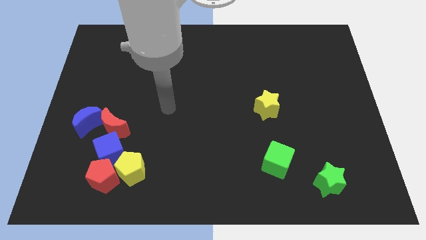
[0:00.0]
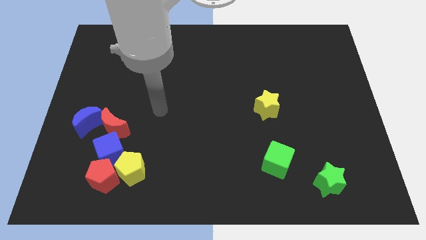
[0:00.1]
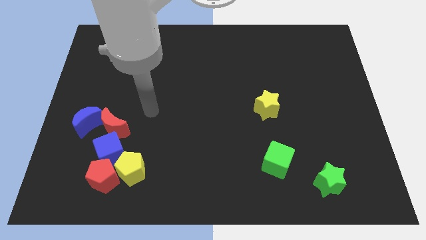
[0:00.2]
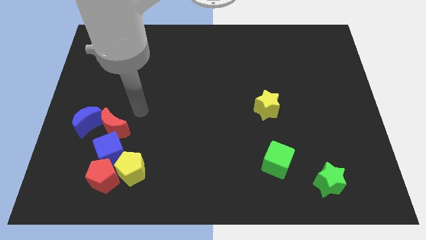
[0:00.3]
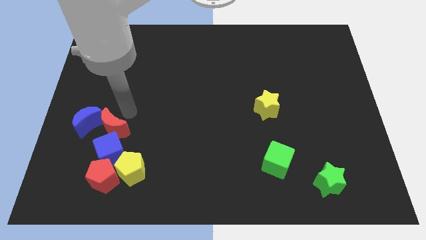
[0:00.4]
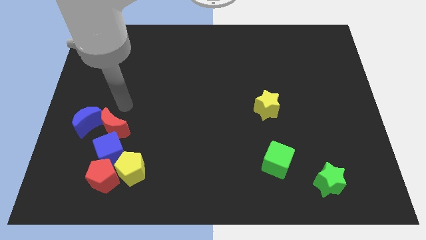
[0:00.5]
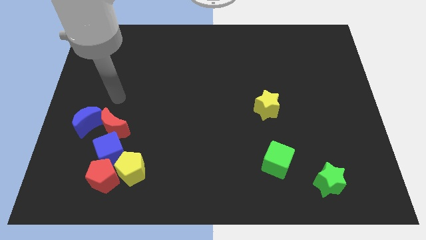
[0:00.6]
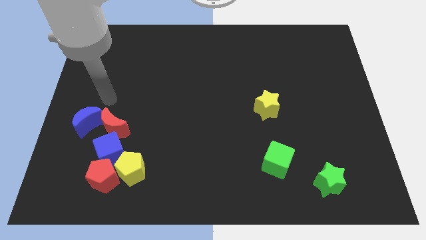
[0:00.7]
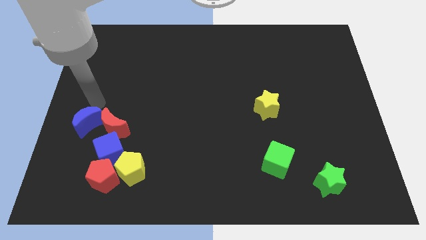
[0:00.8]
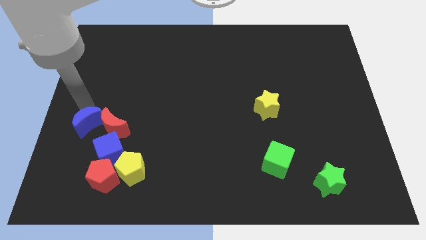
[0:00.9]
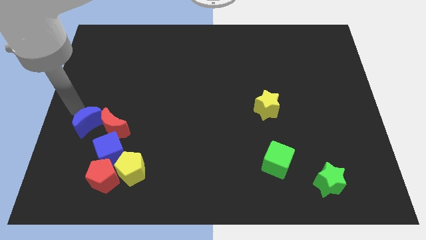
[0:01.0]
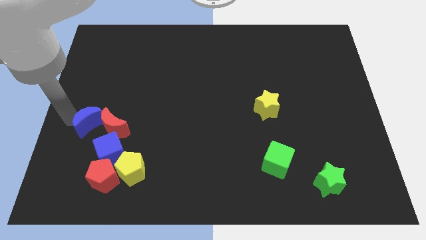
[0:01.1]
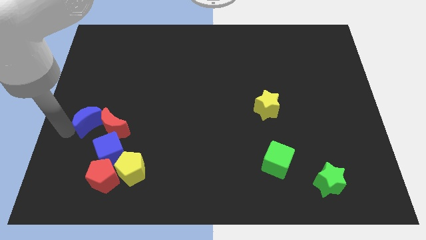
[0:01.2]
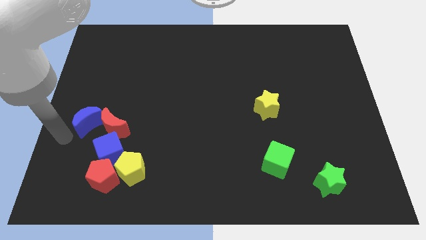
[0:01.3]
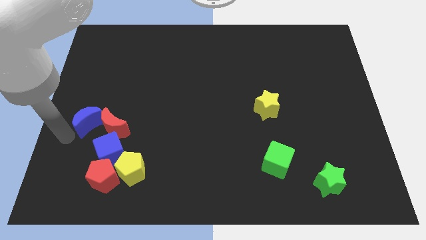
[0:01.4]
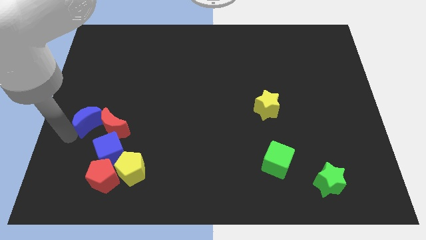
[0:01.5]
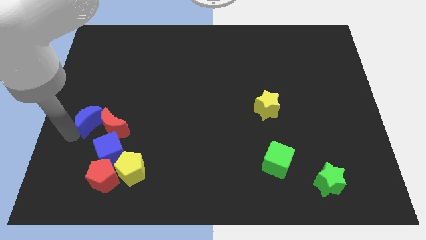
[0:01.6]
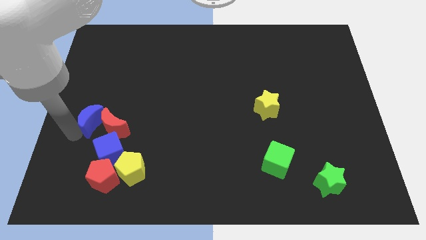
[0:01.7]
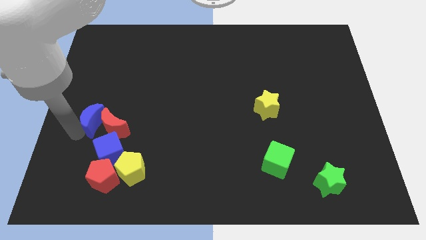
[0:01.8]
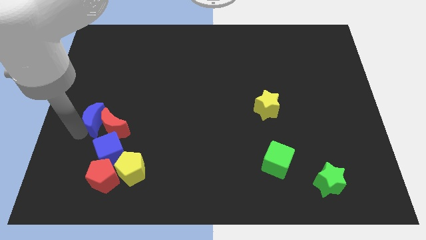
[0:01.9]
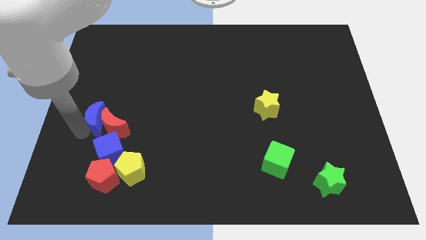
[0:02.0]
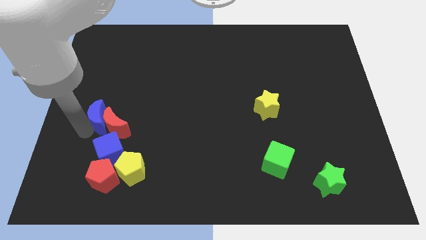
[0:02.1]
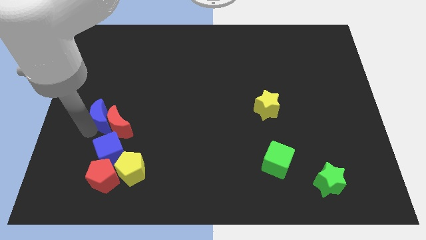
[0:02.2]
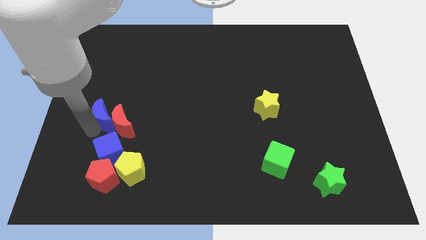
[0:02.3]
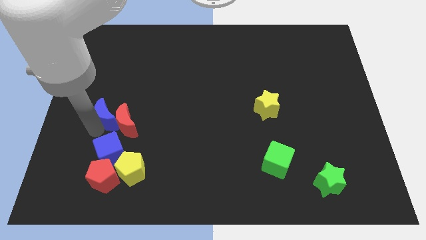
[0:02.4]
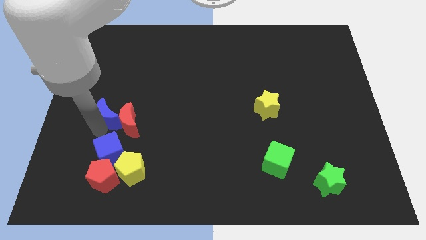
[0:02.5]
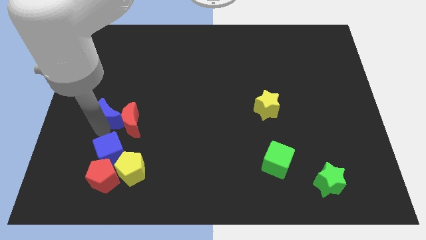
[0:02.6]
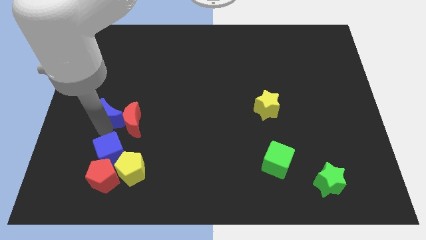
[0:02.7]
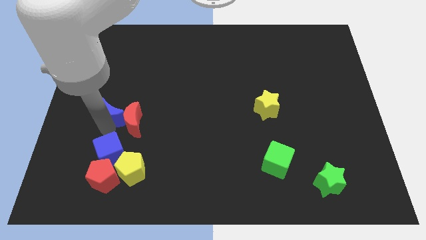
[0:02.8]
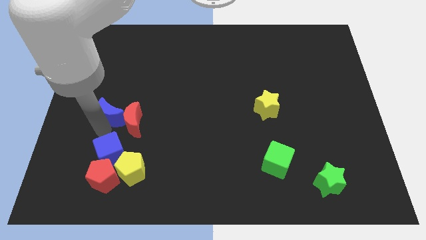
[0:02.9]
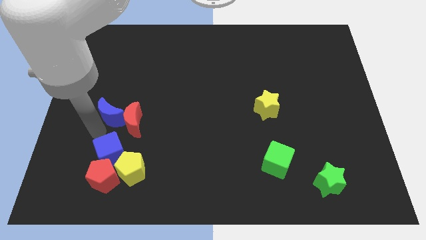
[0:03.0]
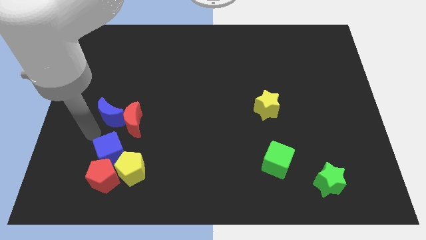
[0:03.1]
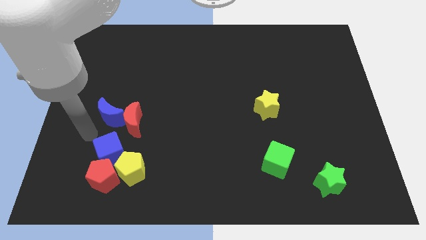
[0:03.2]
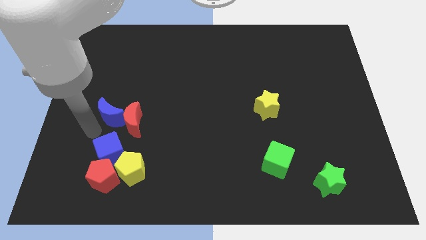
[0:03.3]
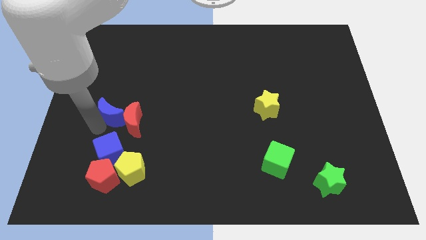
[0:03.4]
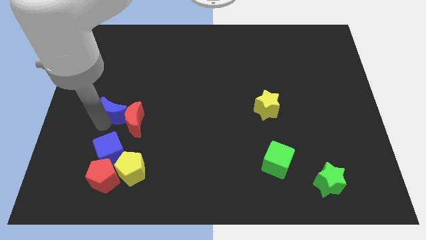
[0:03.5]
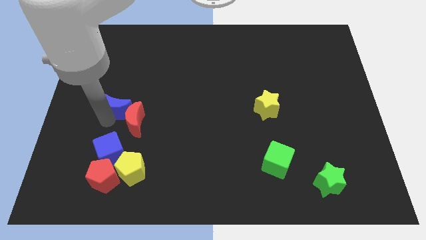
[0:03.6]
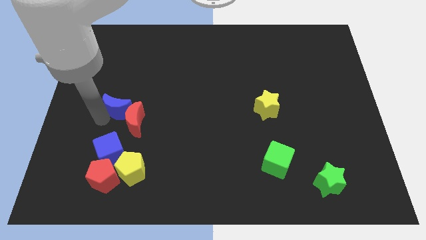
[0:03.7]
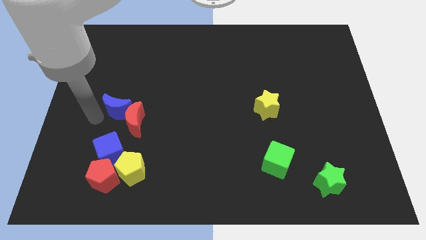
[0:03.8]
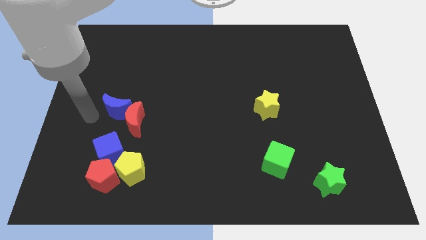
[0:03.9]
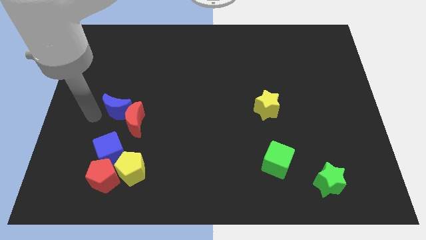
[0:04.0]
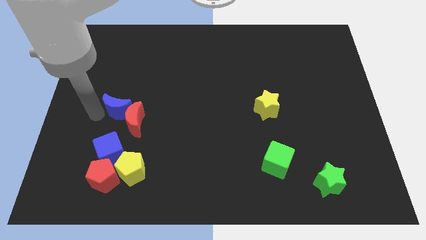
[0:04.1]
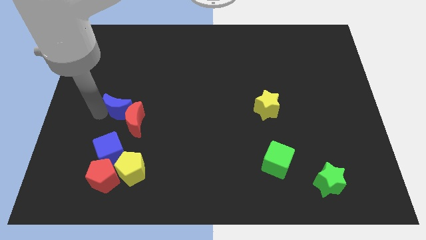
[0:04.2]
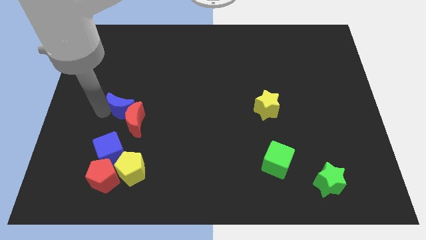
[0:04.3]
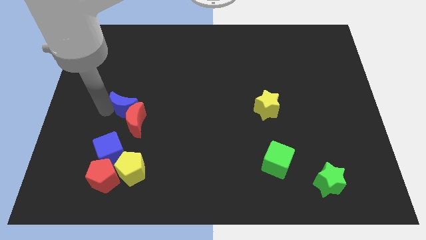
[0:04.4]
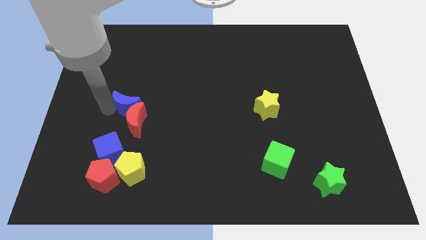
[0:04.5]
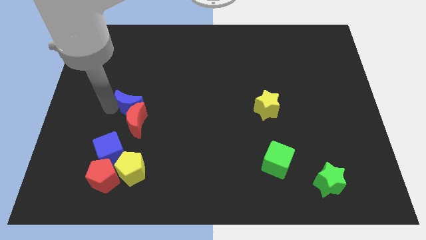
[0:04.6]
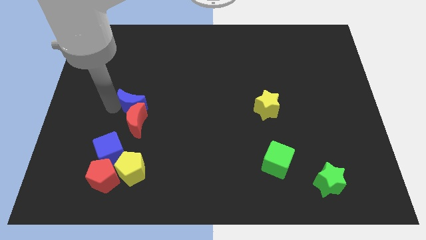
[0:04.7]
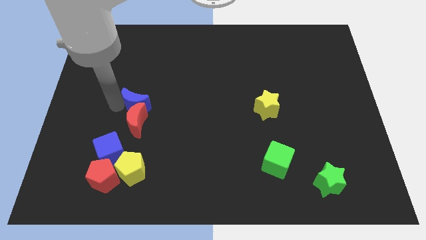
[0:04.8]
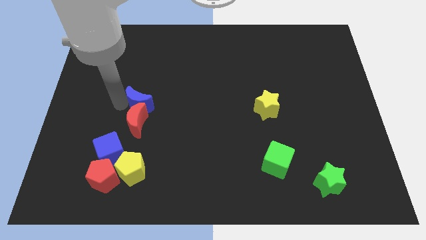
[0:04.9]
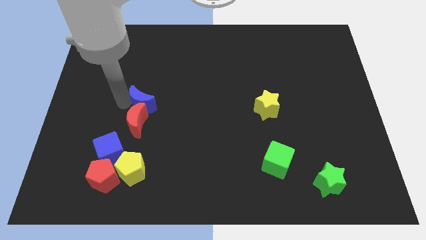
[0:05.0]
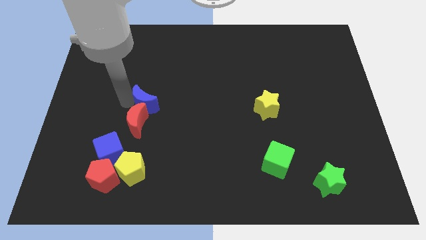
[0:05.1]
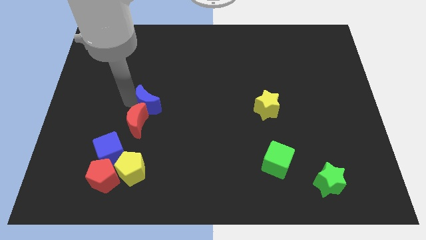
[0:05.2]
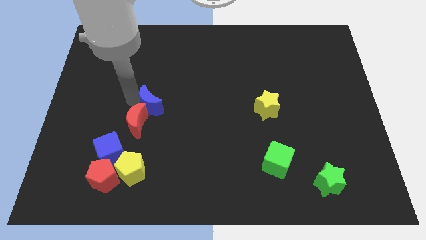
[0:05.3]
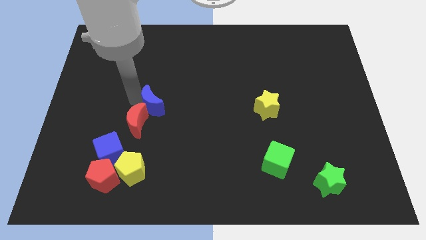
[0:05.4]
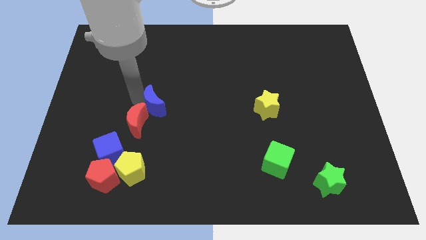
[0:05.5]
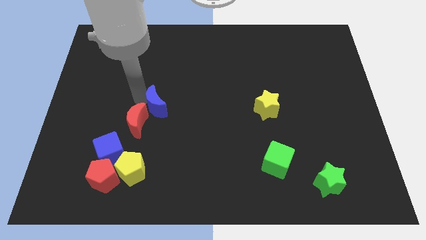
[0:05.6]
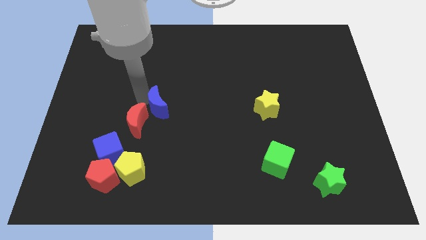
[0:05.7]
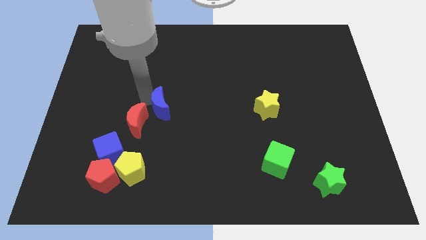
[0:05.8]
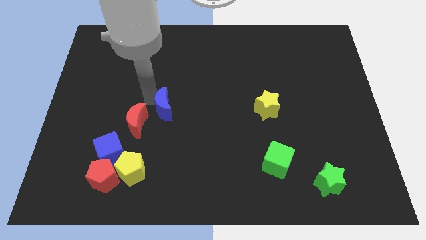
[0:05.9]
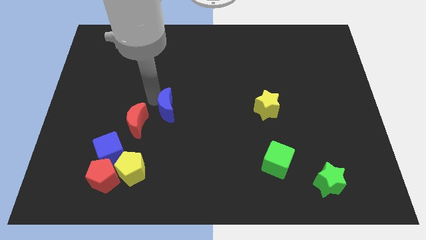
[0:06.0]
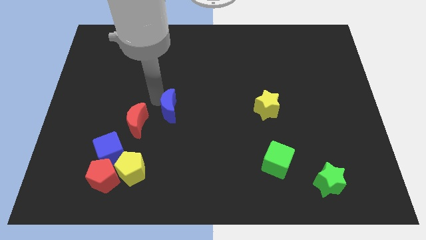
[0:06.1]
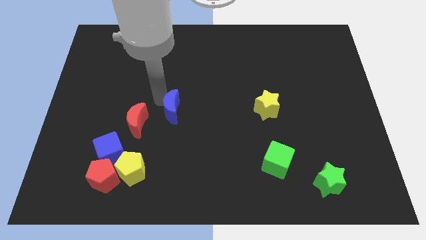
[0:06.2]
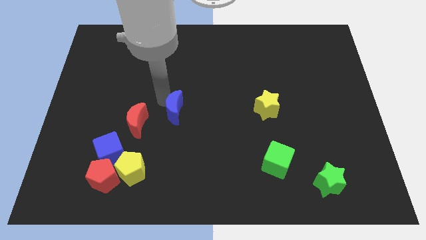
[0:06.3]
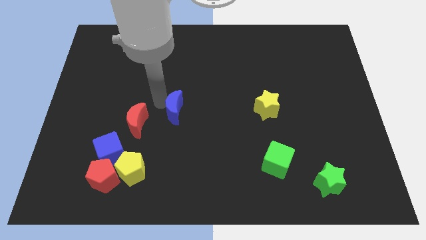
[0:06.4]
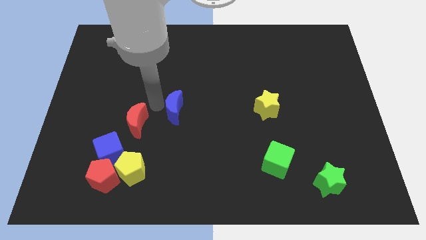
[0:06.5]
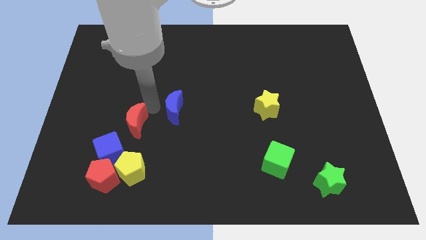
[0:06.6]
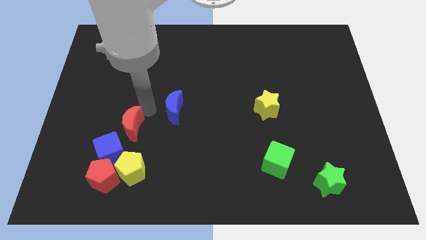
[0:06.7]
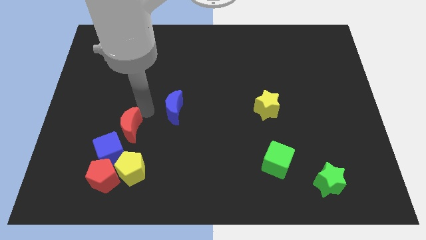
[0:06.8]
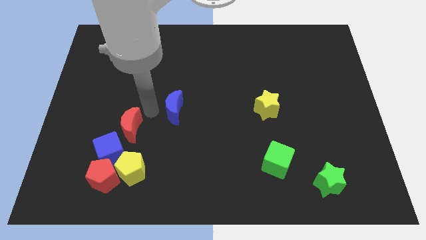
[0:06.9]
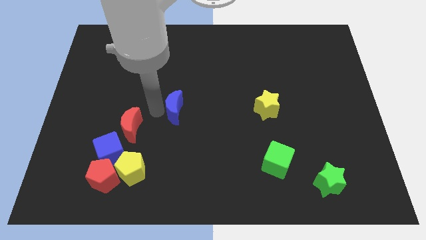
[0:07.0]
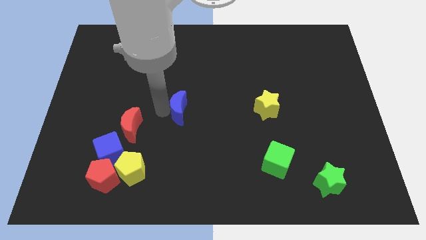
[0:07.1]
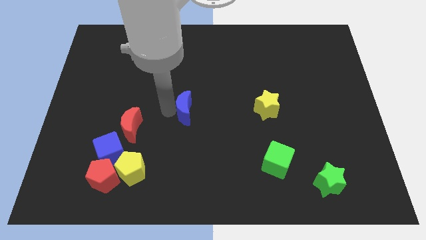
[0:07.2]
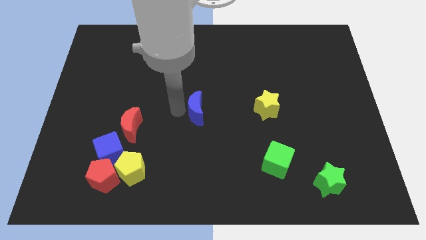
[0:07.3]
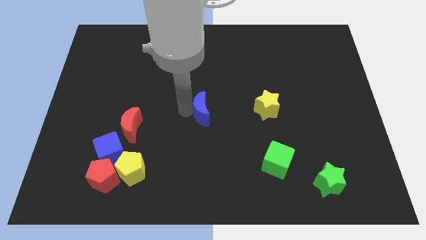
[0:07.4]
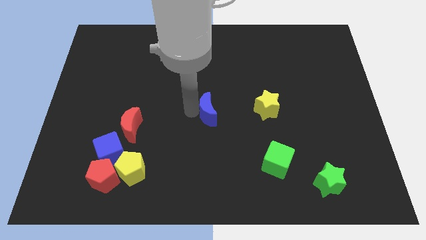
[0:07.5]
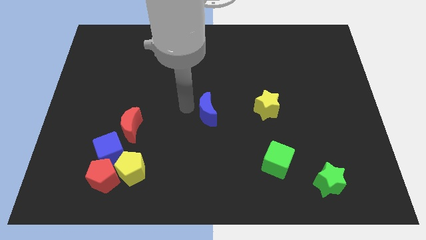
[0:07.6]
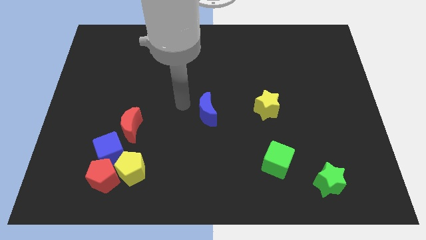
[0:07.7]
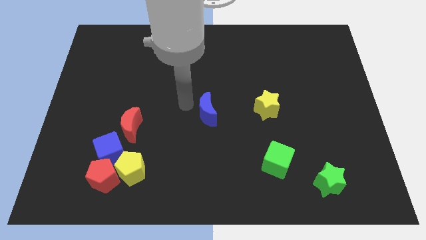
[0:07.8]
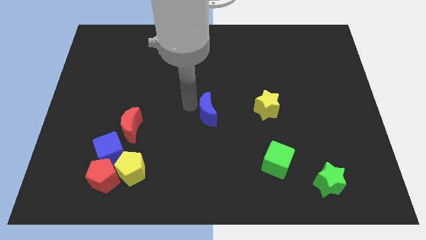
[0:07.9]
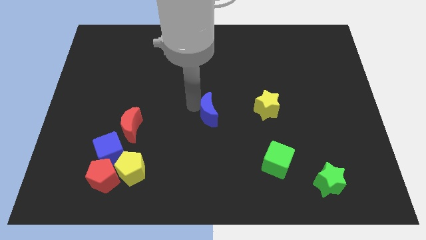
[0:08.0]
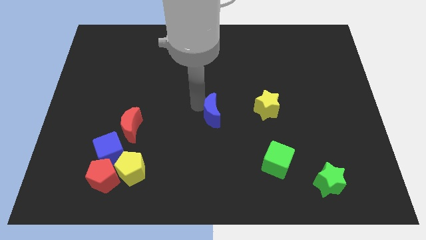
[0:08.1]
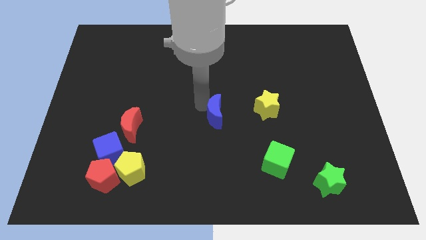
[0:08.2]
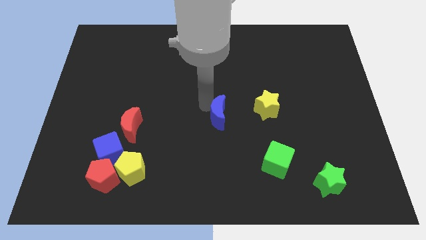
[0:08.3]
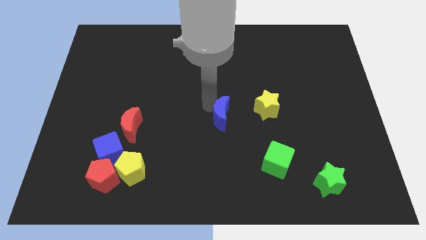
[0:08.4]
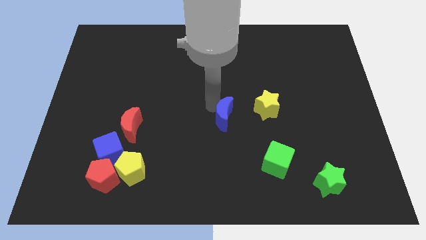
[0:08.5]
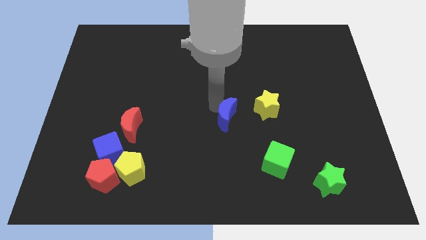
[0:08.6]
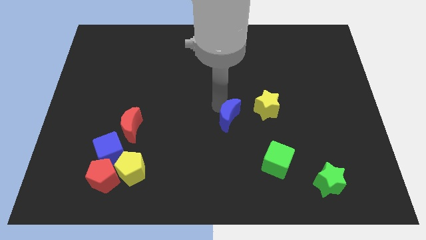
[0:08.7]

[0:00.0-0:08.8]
put the blue moon to the bottom left of the yellow star
